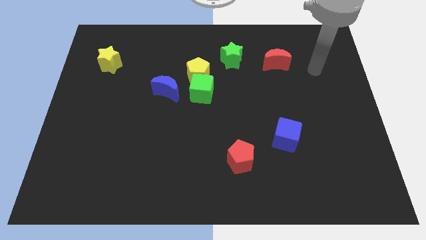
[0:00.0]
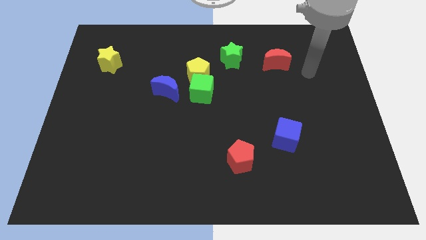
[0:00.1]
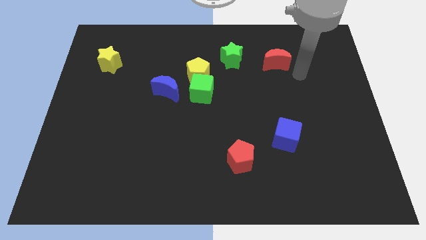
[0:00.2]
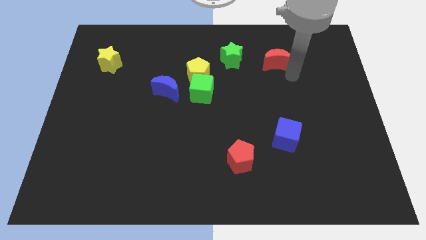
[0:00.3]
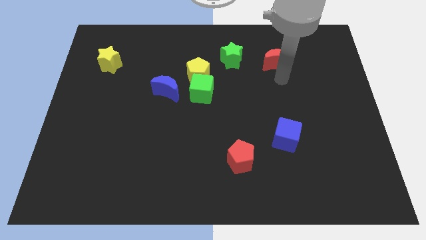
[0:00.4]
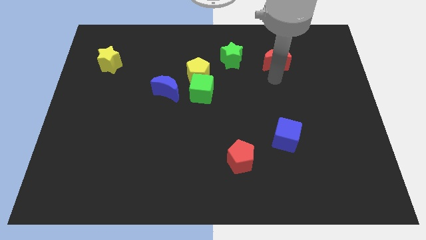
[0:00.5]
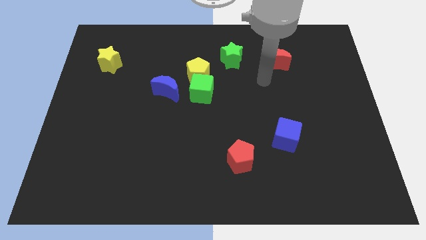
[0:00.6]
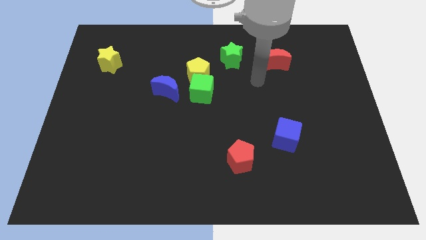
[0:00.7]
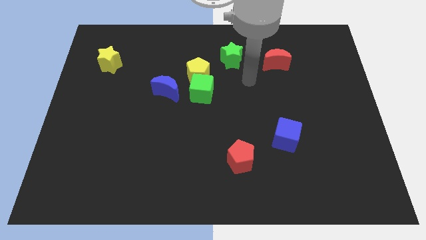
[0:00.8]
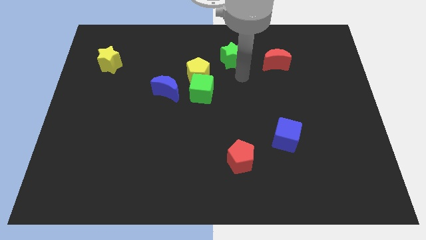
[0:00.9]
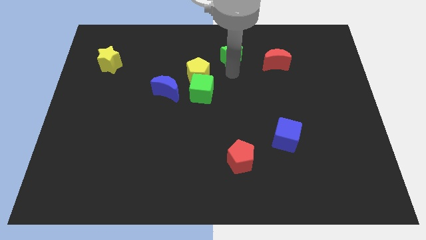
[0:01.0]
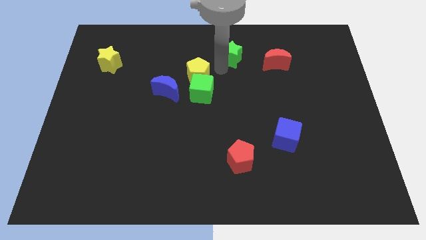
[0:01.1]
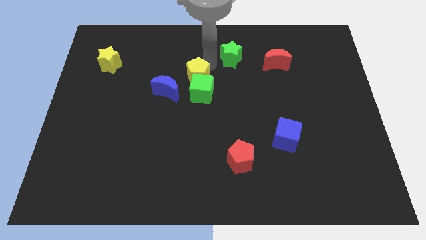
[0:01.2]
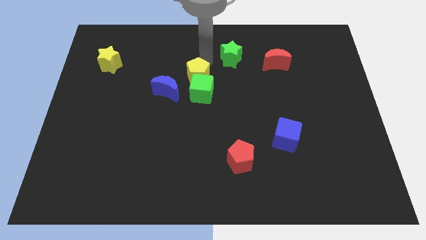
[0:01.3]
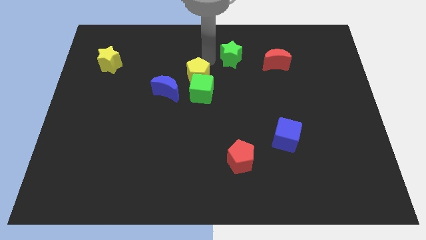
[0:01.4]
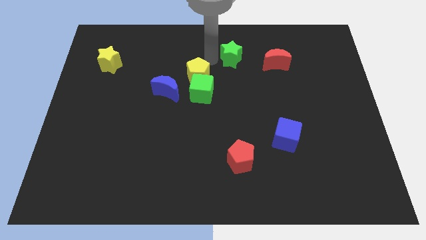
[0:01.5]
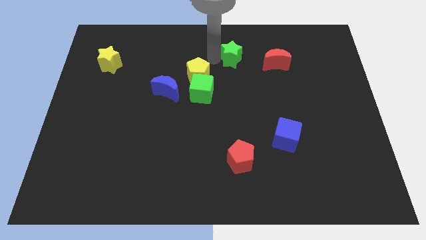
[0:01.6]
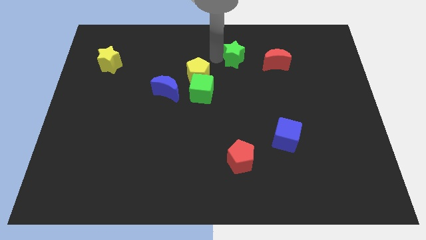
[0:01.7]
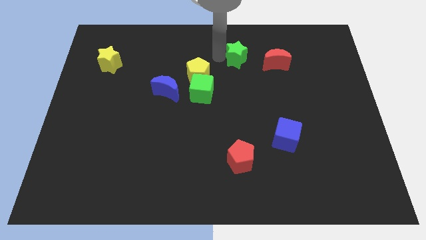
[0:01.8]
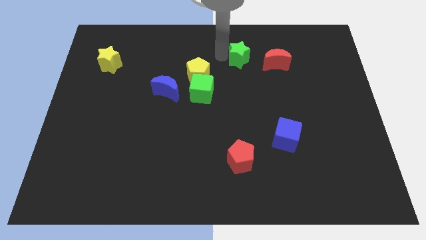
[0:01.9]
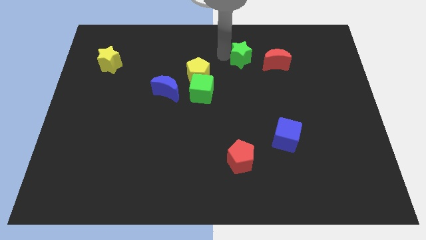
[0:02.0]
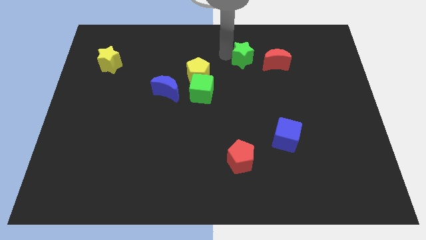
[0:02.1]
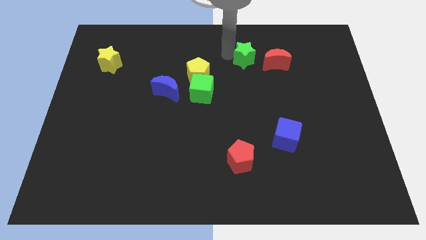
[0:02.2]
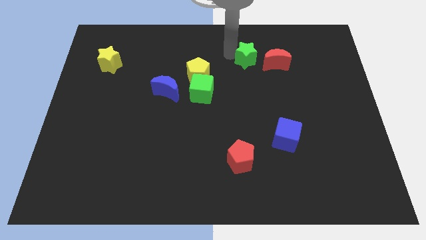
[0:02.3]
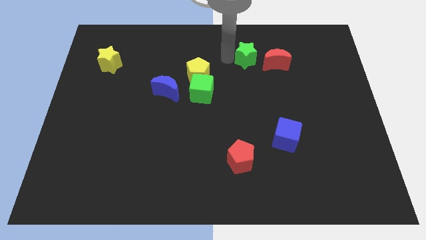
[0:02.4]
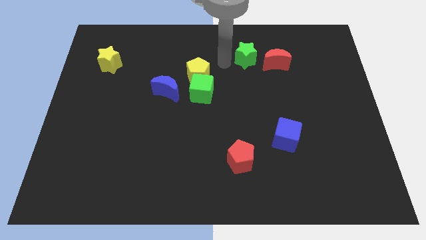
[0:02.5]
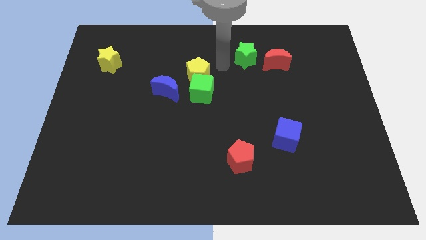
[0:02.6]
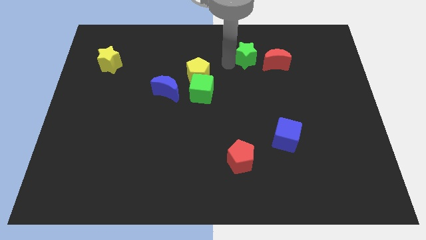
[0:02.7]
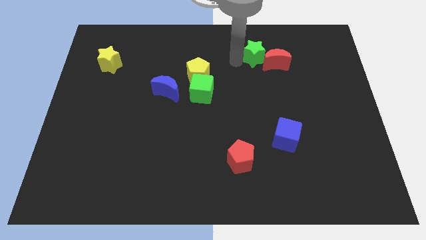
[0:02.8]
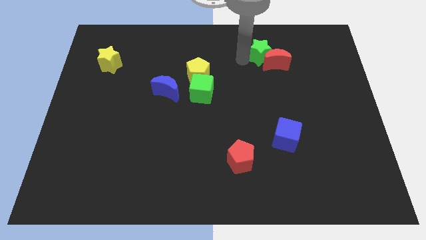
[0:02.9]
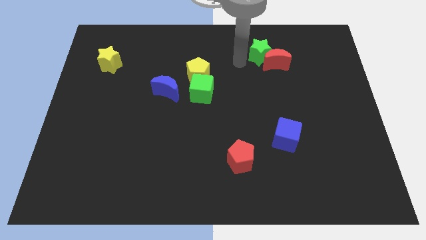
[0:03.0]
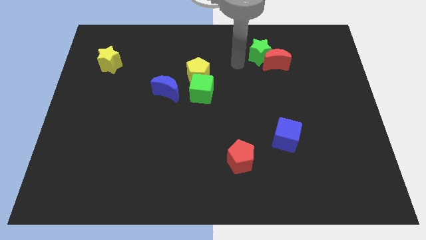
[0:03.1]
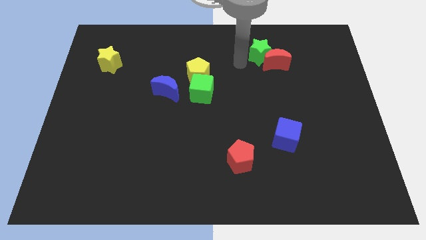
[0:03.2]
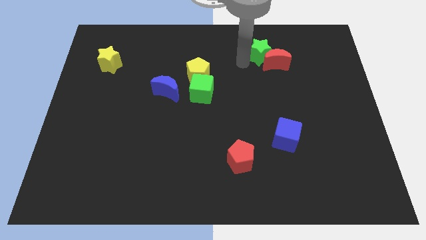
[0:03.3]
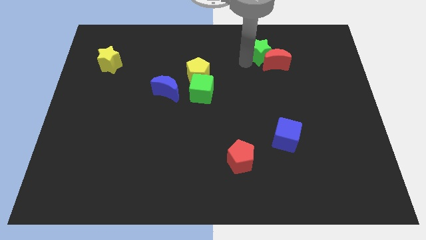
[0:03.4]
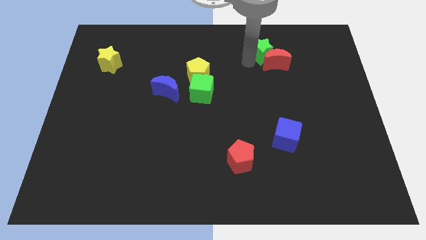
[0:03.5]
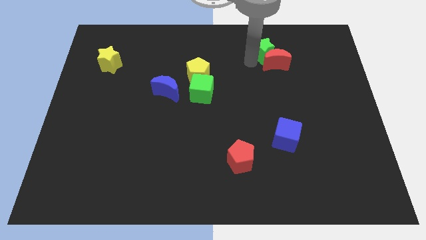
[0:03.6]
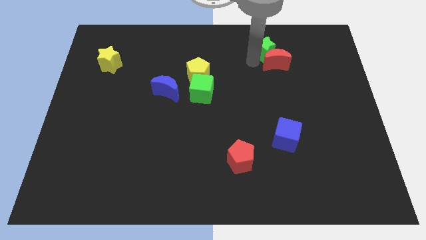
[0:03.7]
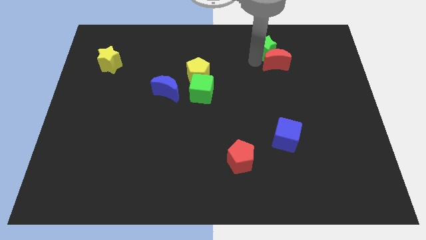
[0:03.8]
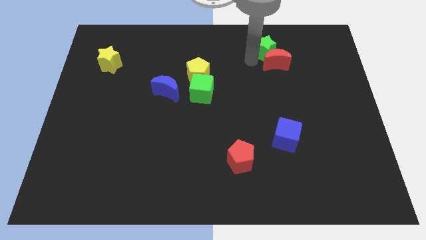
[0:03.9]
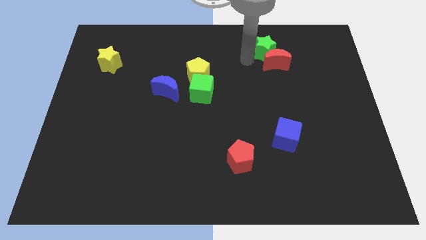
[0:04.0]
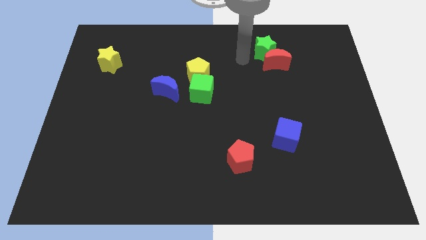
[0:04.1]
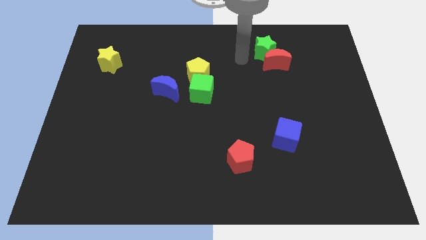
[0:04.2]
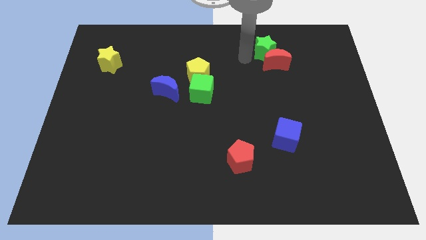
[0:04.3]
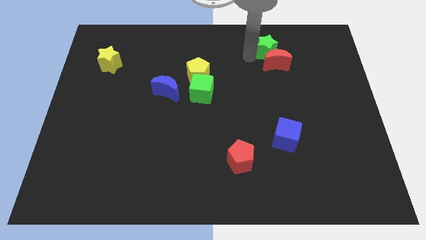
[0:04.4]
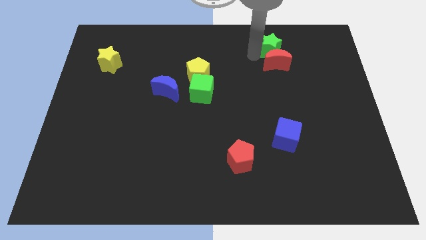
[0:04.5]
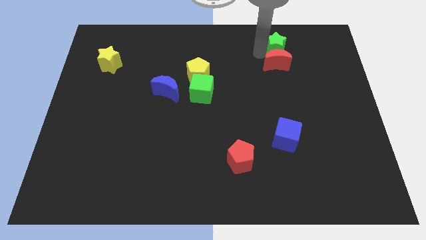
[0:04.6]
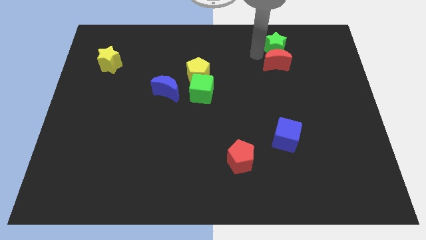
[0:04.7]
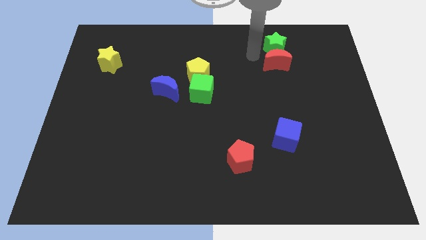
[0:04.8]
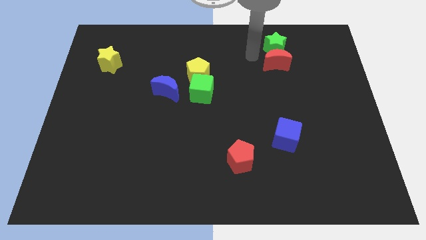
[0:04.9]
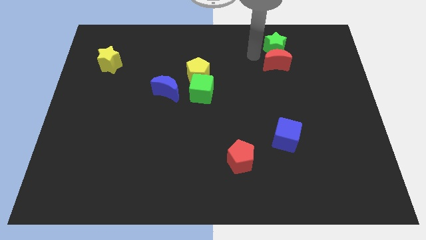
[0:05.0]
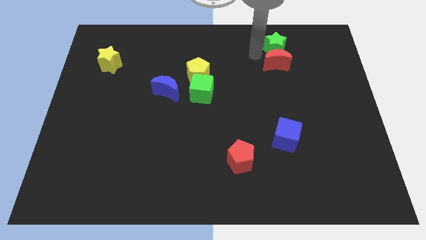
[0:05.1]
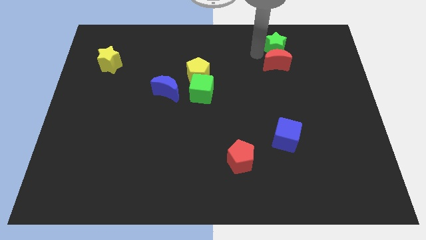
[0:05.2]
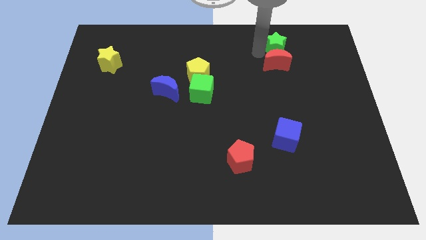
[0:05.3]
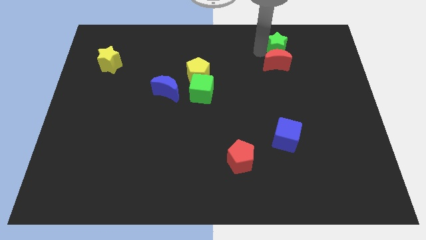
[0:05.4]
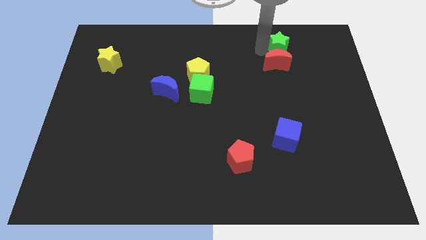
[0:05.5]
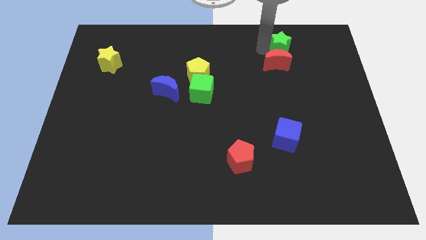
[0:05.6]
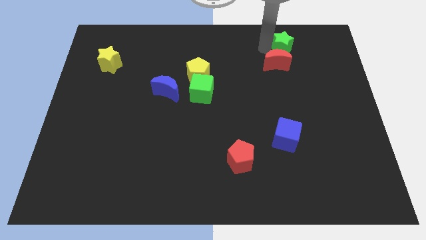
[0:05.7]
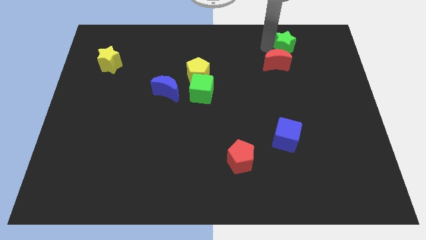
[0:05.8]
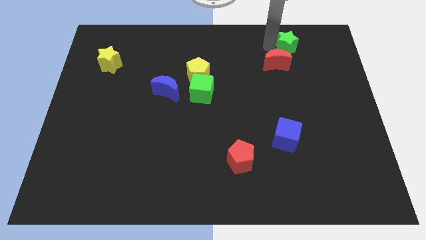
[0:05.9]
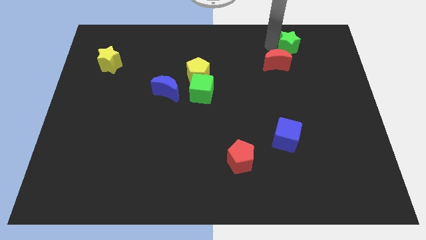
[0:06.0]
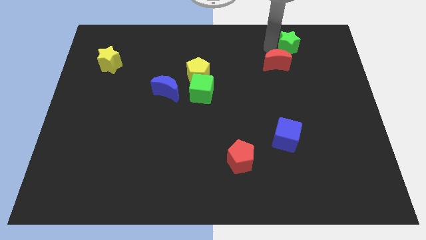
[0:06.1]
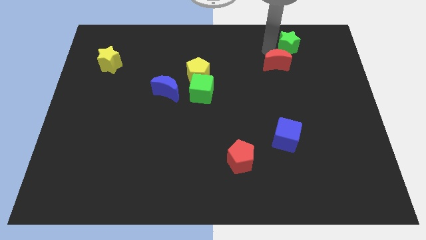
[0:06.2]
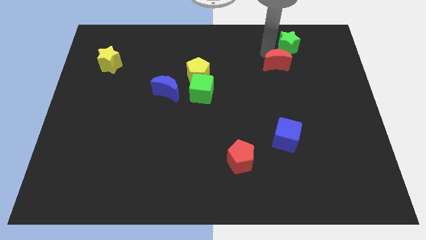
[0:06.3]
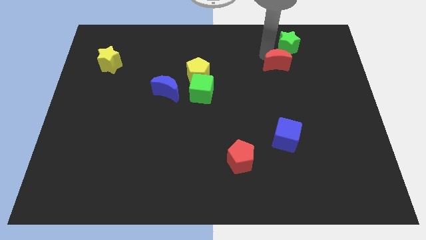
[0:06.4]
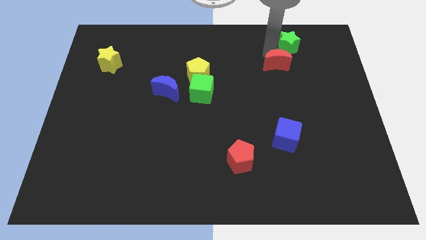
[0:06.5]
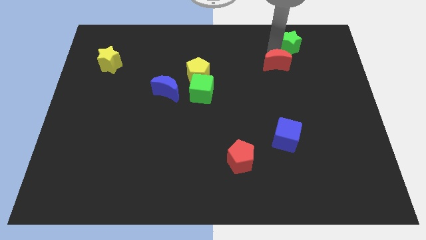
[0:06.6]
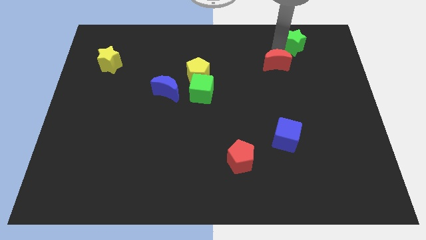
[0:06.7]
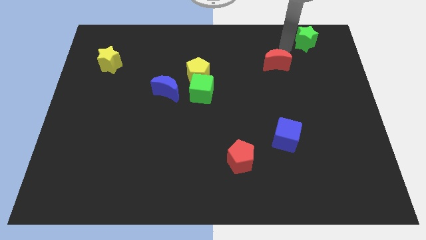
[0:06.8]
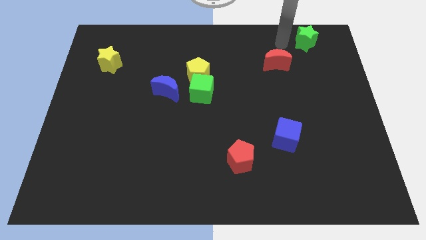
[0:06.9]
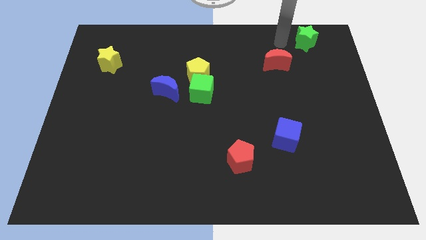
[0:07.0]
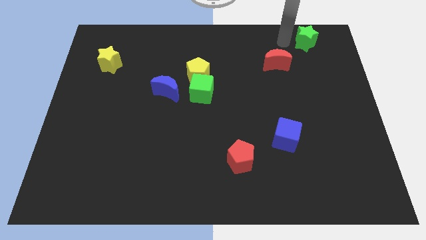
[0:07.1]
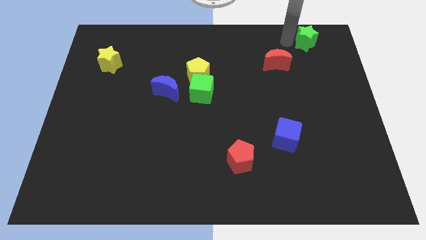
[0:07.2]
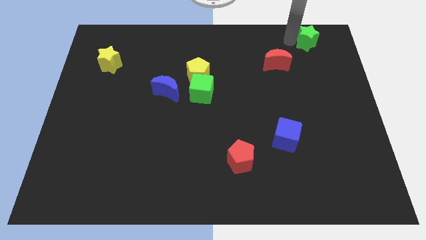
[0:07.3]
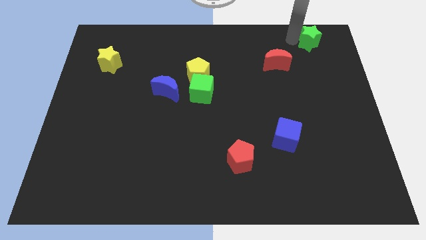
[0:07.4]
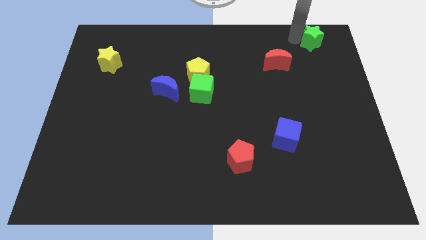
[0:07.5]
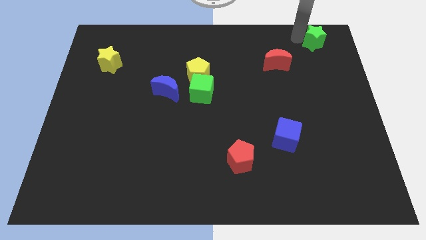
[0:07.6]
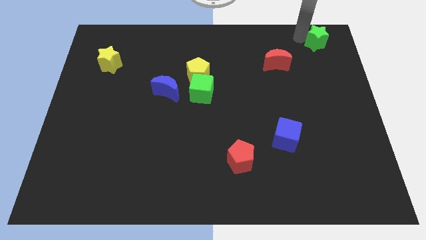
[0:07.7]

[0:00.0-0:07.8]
push the green star to the upper right corner
